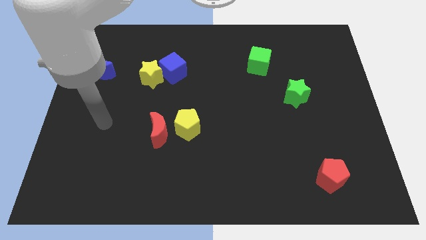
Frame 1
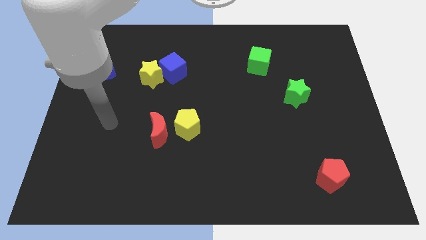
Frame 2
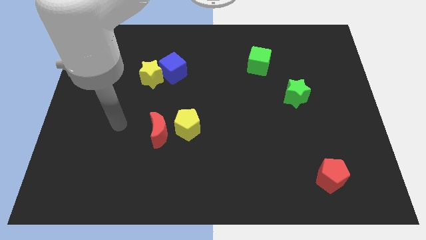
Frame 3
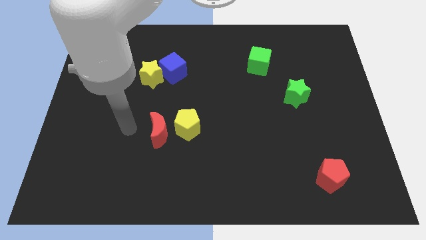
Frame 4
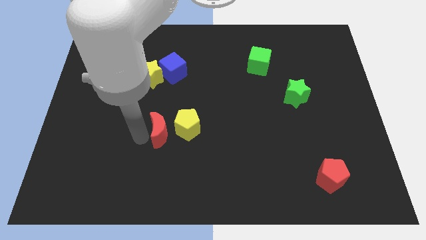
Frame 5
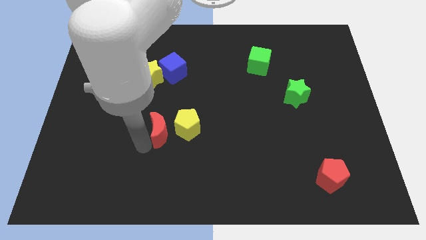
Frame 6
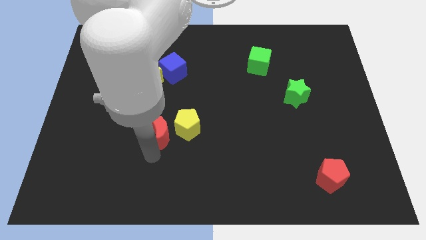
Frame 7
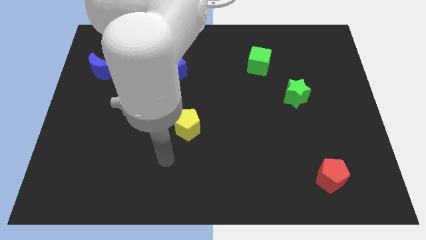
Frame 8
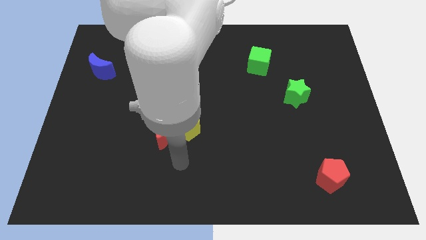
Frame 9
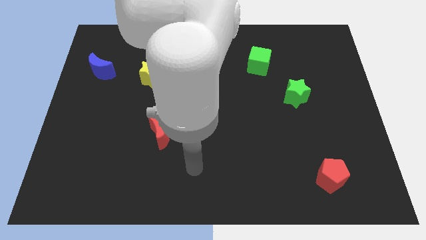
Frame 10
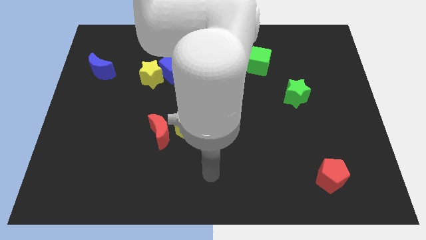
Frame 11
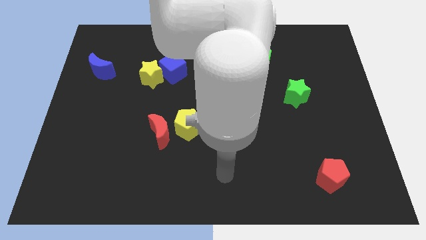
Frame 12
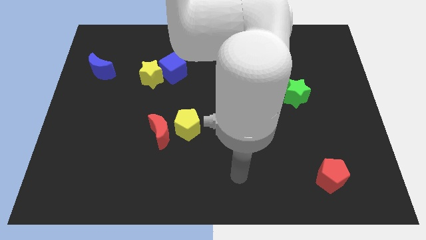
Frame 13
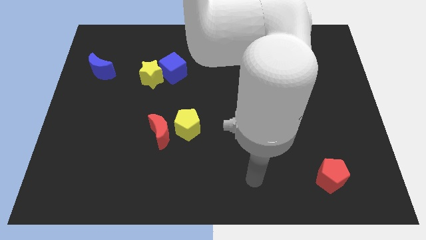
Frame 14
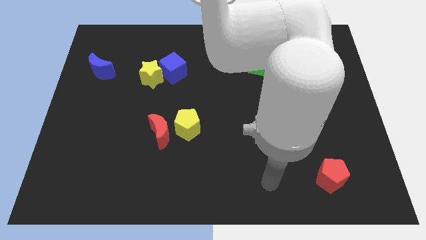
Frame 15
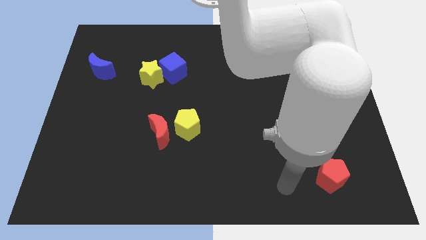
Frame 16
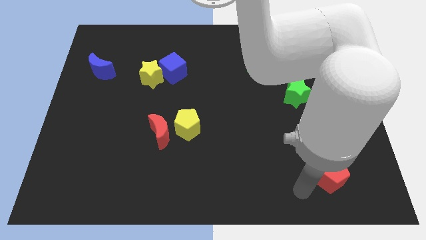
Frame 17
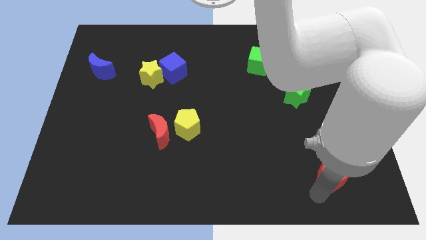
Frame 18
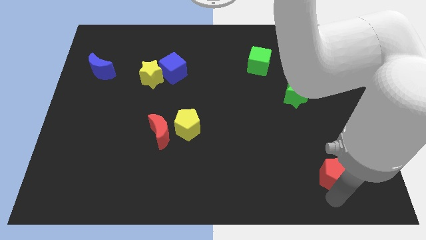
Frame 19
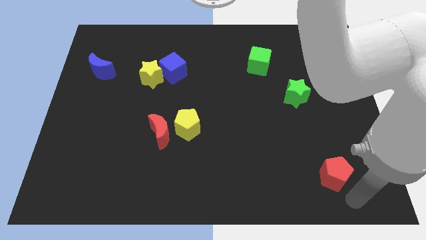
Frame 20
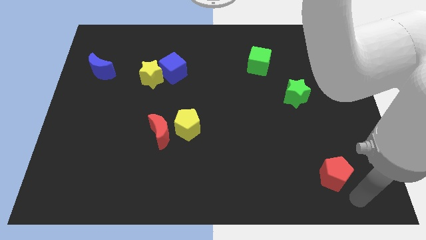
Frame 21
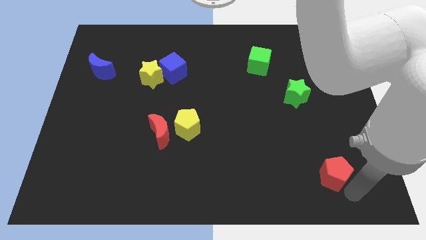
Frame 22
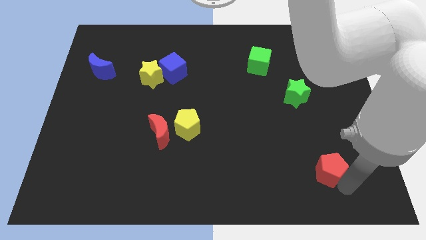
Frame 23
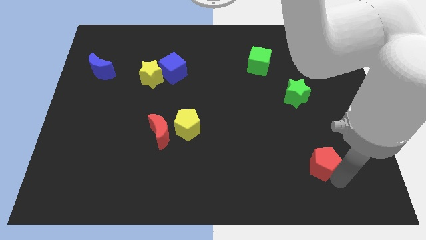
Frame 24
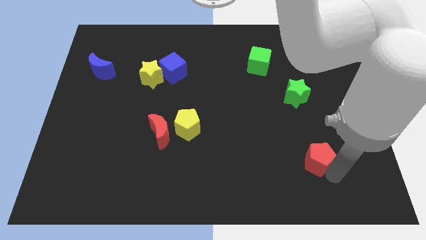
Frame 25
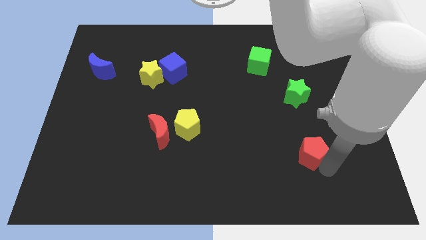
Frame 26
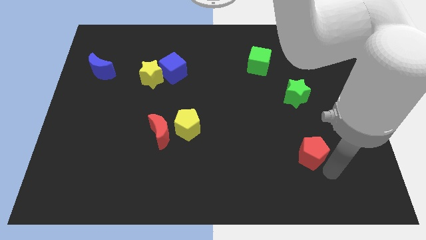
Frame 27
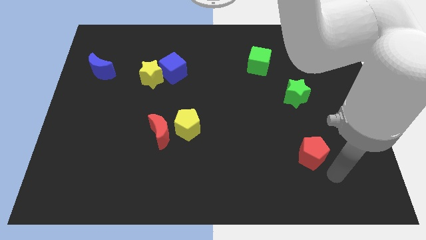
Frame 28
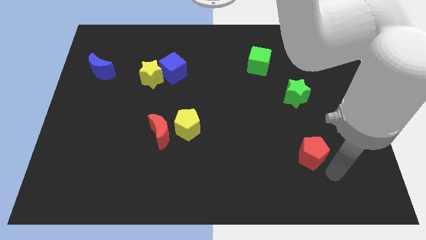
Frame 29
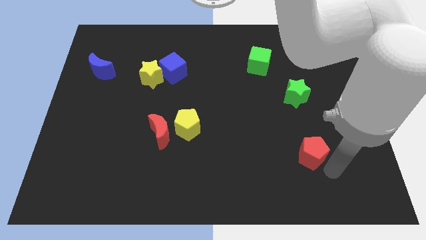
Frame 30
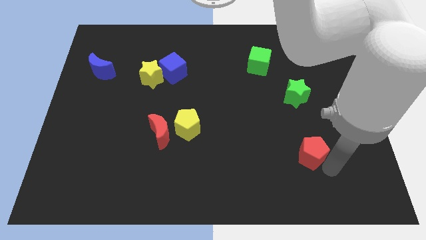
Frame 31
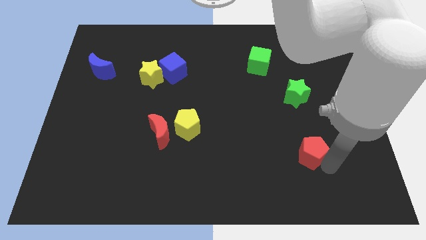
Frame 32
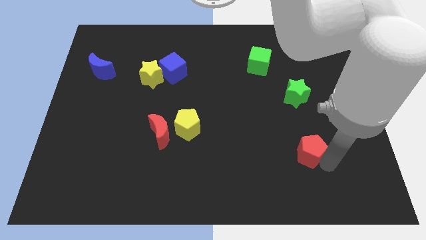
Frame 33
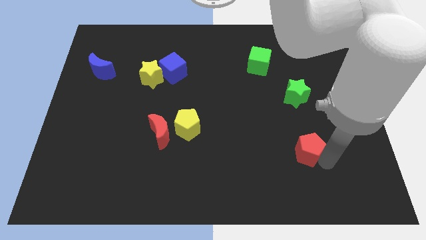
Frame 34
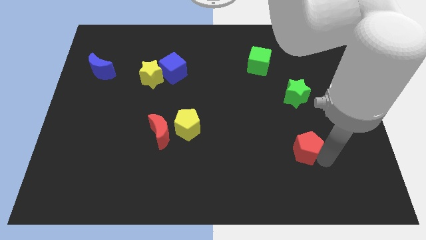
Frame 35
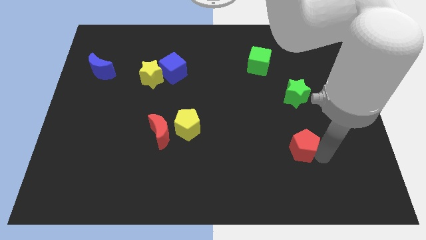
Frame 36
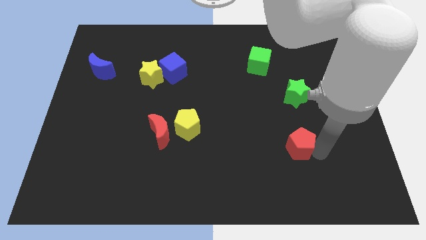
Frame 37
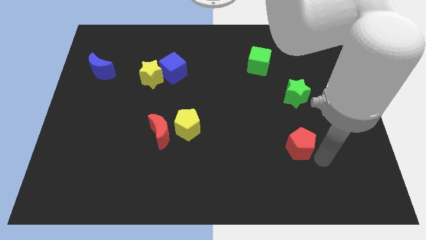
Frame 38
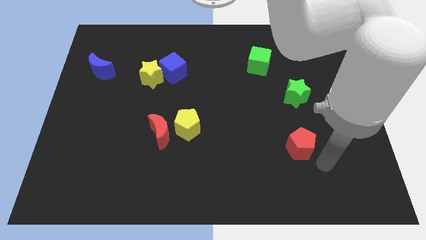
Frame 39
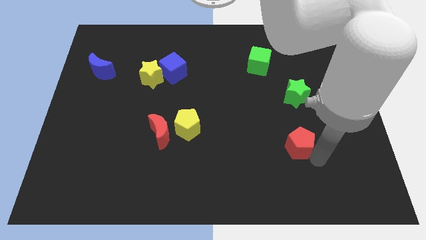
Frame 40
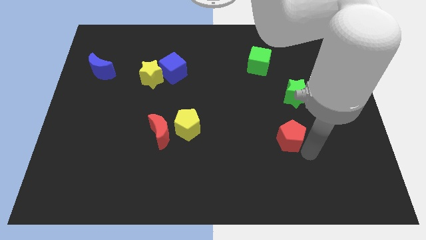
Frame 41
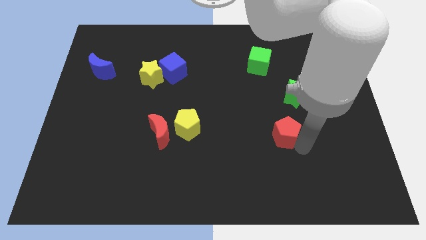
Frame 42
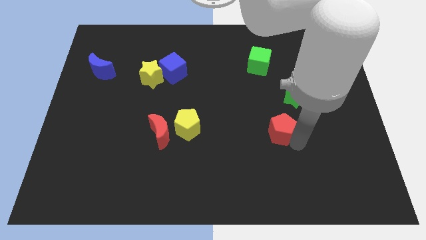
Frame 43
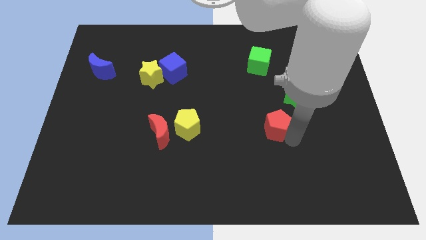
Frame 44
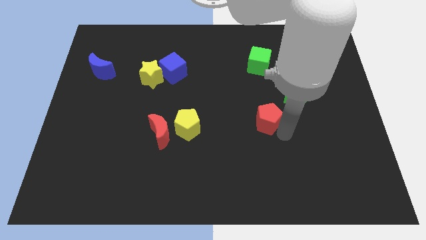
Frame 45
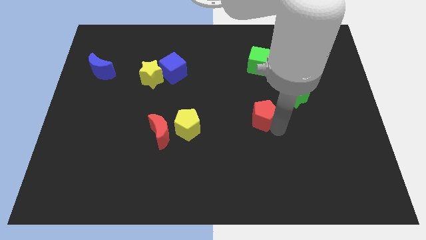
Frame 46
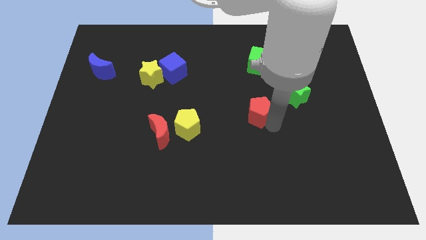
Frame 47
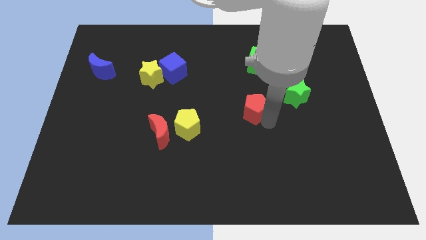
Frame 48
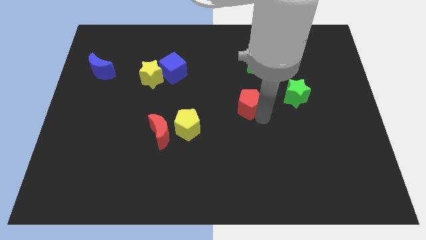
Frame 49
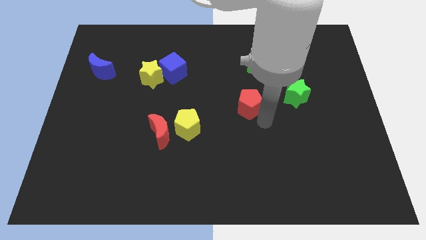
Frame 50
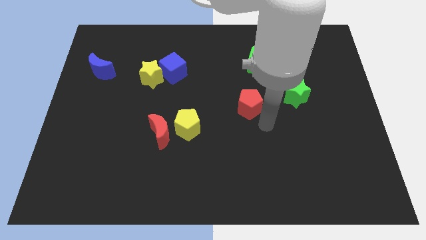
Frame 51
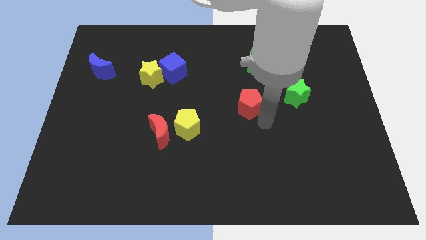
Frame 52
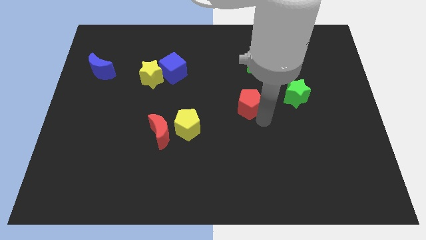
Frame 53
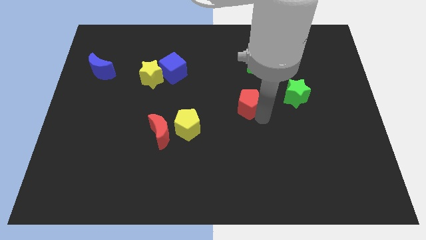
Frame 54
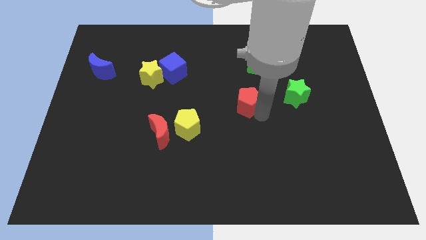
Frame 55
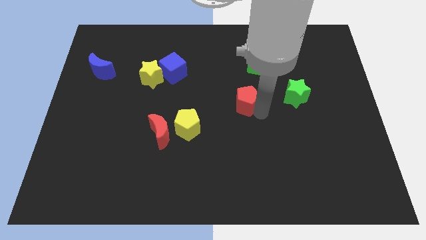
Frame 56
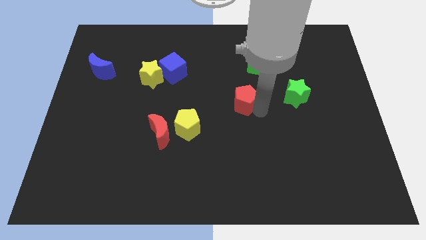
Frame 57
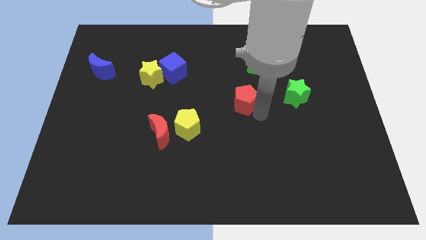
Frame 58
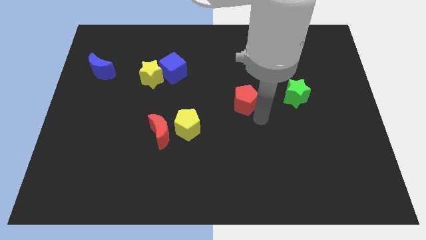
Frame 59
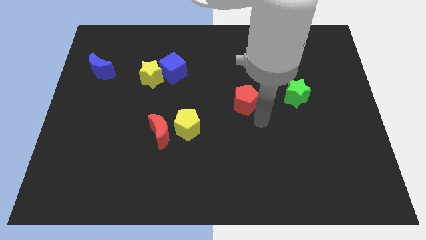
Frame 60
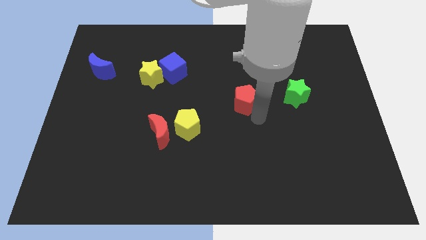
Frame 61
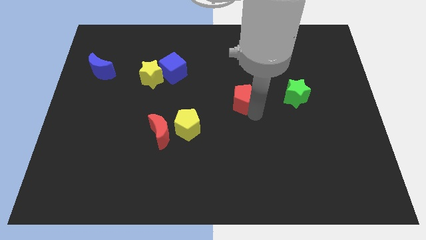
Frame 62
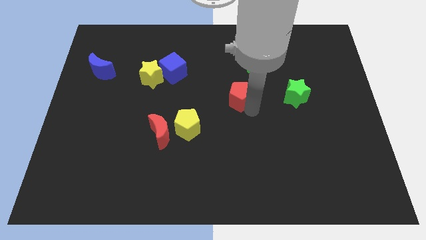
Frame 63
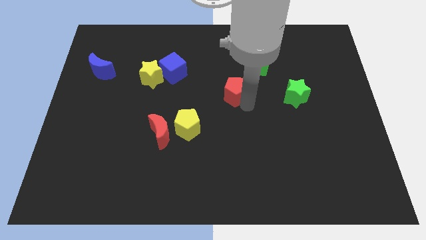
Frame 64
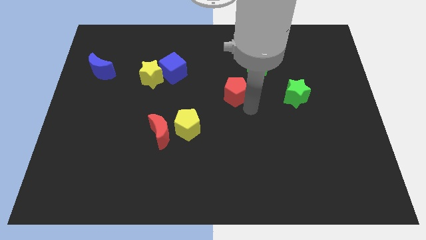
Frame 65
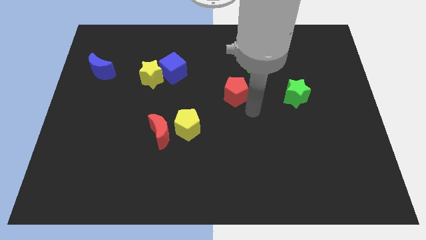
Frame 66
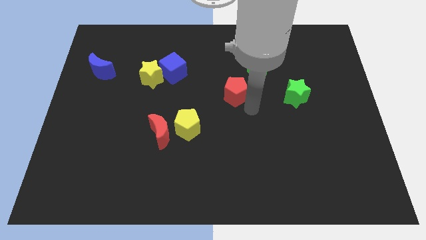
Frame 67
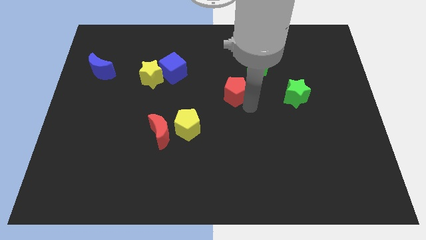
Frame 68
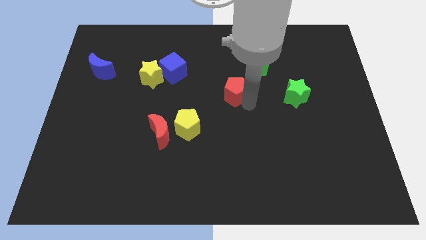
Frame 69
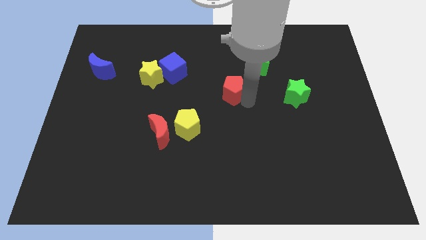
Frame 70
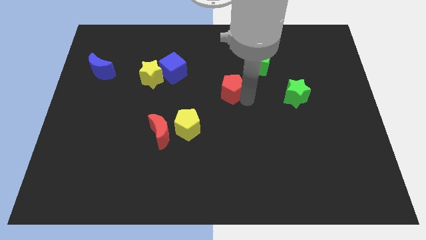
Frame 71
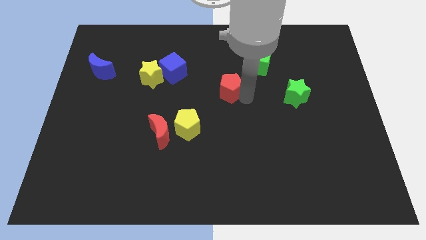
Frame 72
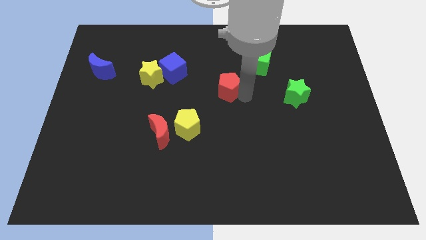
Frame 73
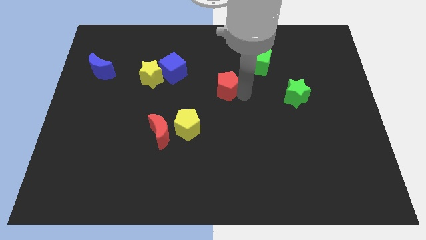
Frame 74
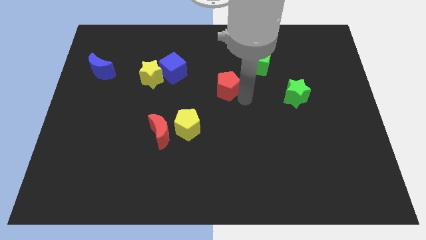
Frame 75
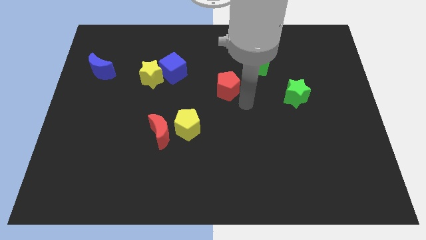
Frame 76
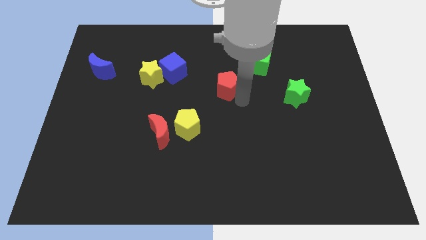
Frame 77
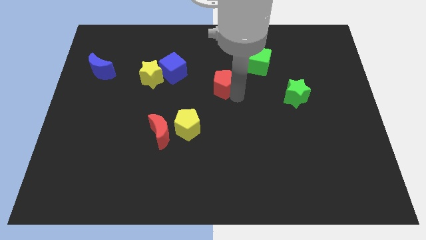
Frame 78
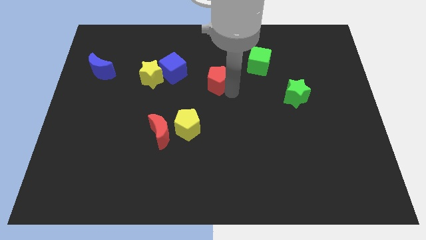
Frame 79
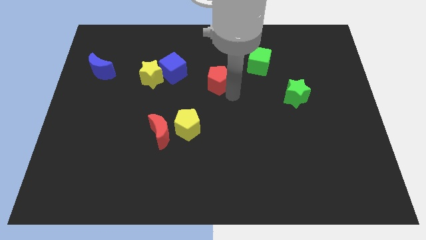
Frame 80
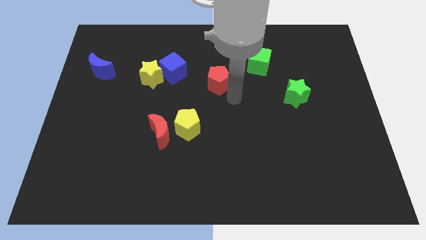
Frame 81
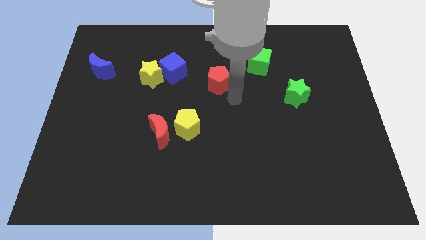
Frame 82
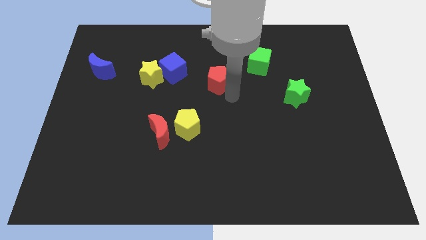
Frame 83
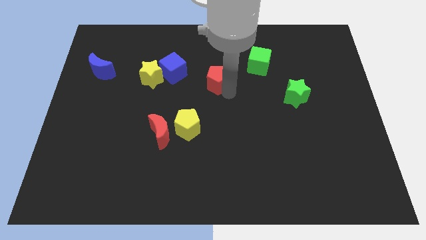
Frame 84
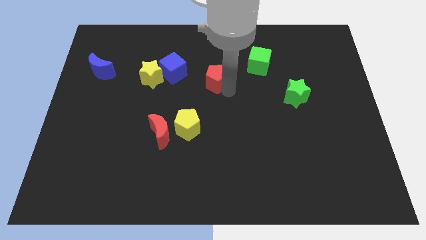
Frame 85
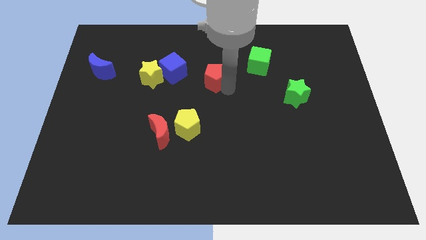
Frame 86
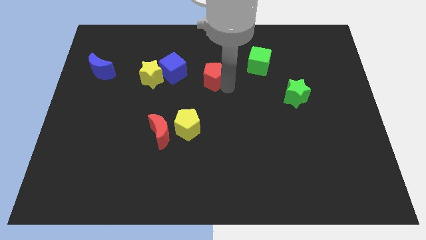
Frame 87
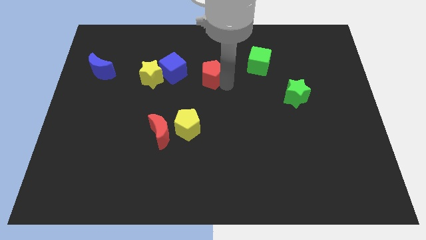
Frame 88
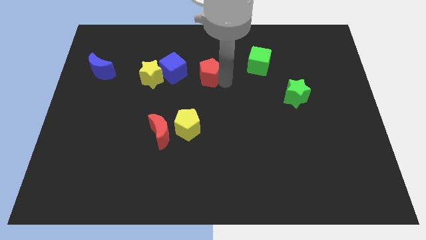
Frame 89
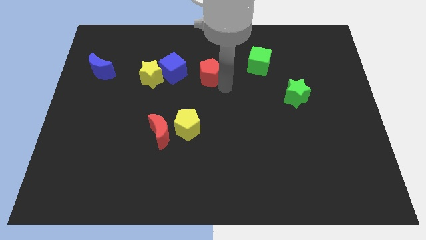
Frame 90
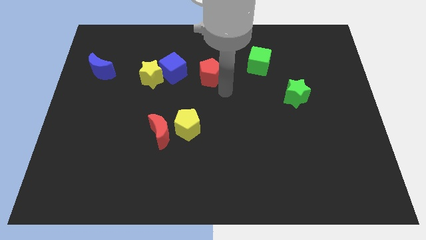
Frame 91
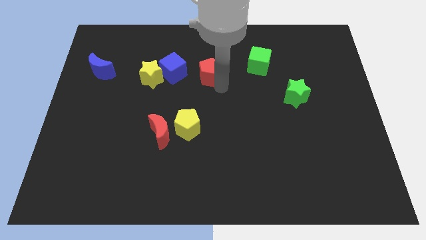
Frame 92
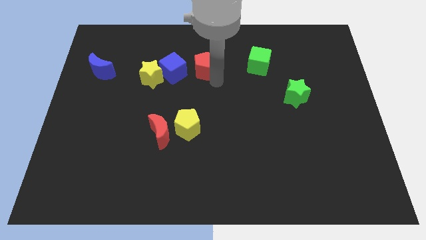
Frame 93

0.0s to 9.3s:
move the red pentagon diagonally up and to the right of the blue cube
